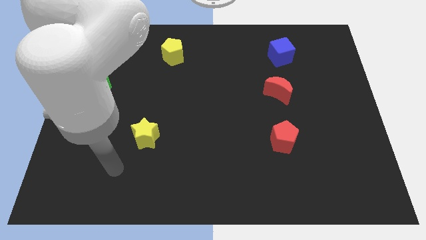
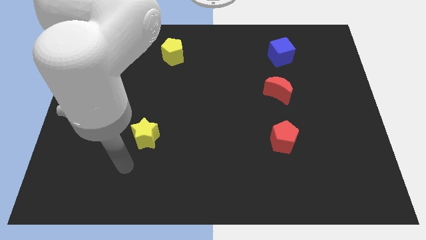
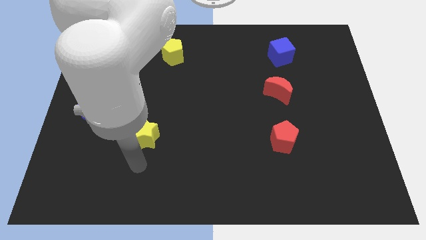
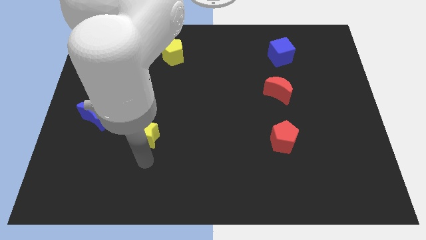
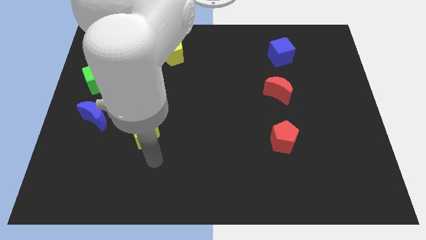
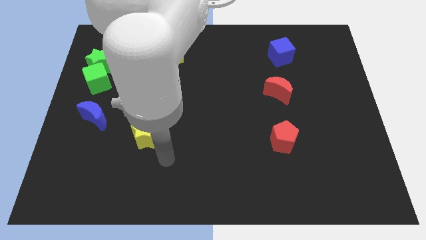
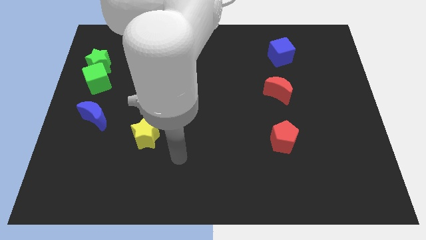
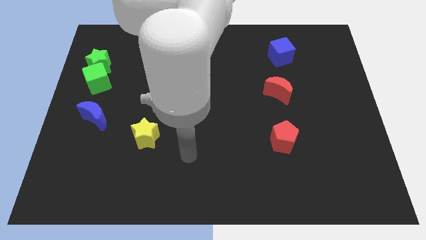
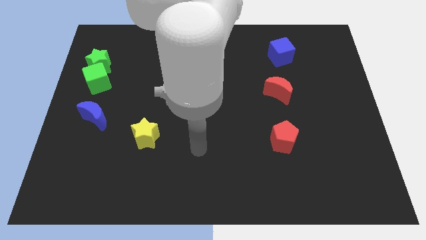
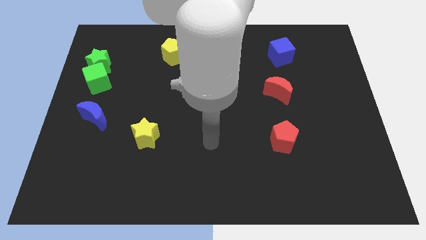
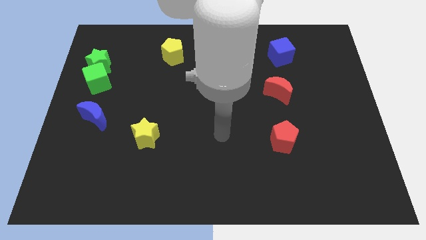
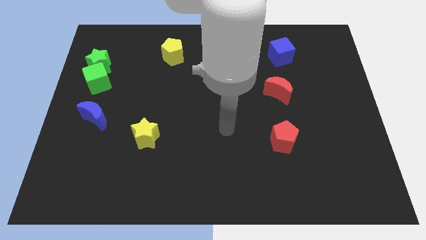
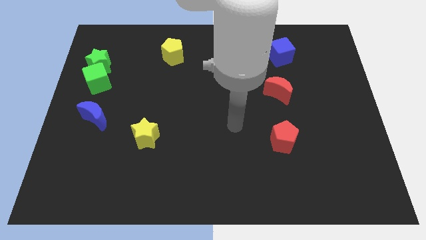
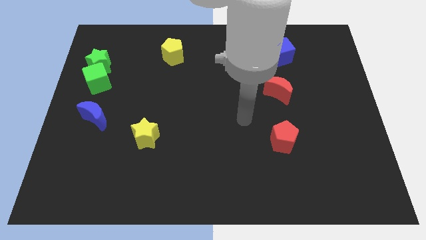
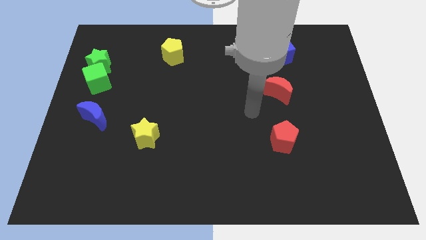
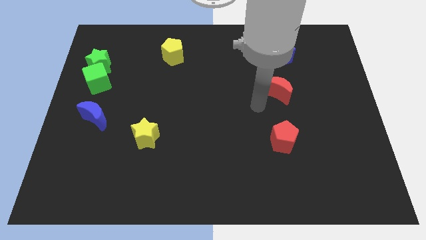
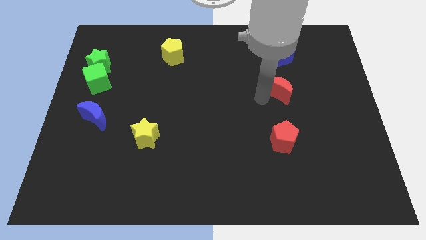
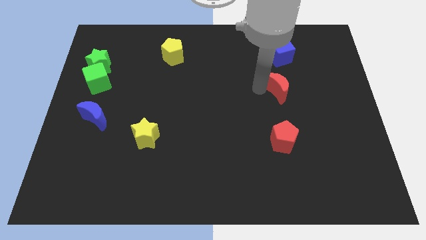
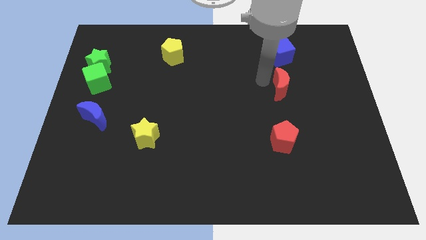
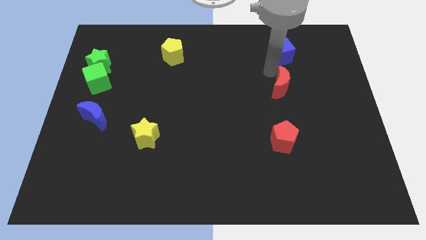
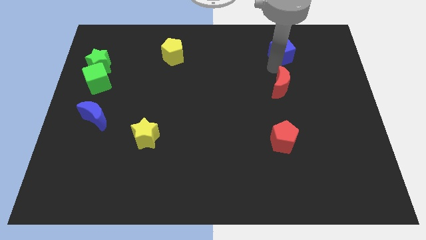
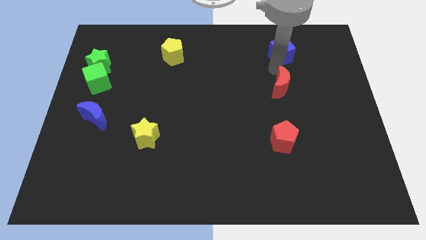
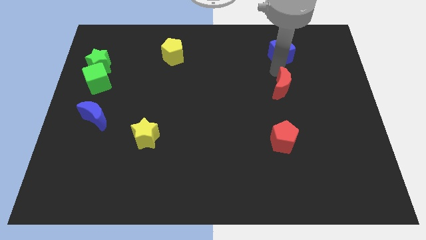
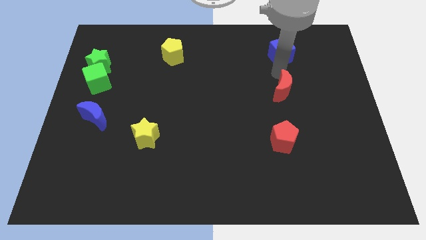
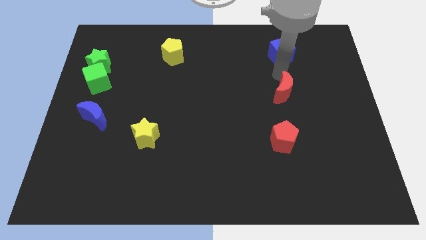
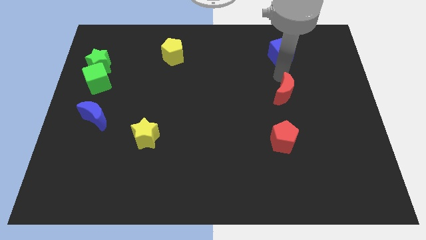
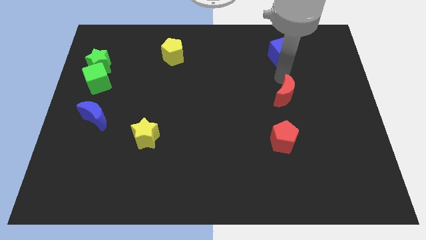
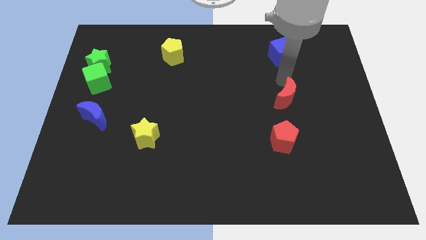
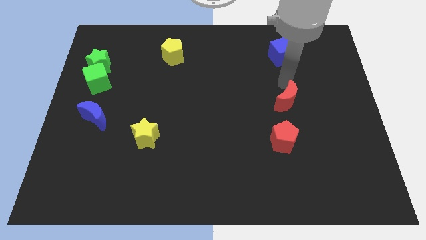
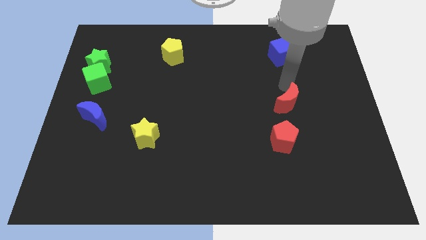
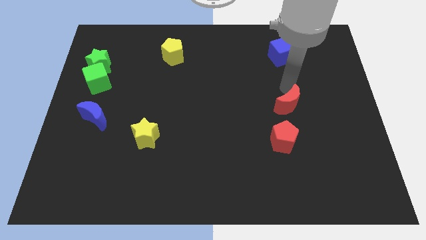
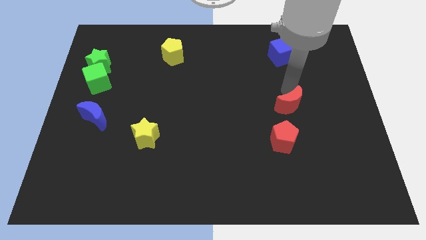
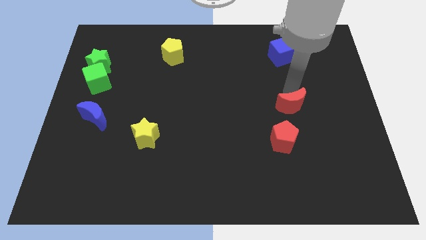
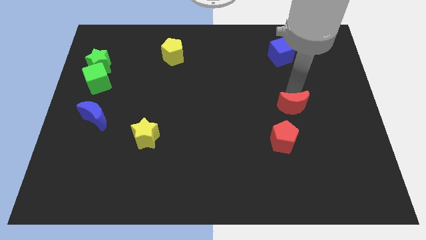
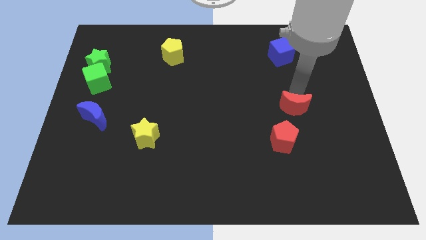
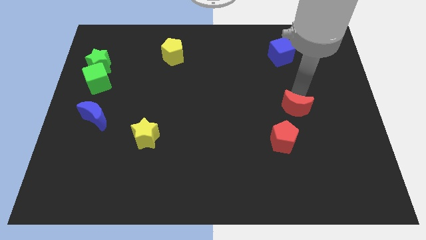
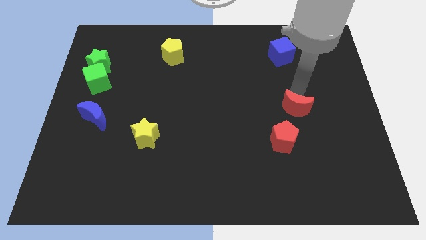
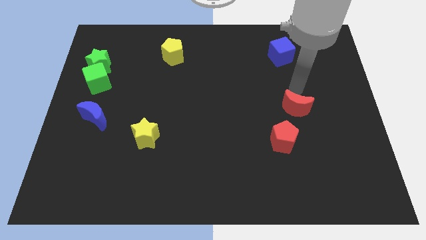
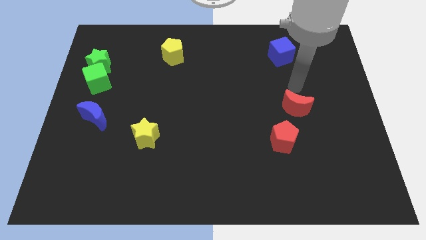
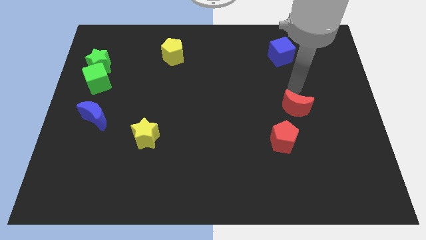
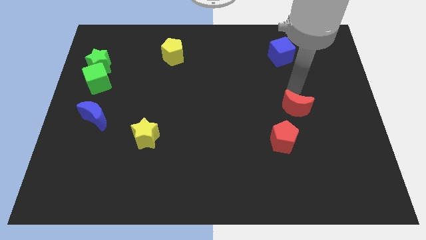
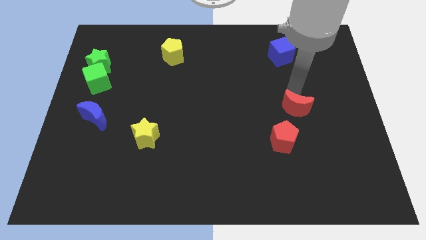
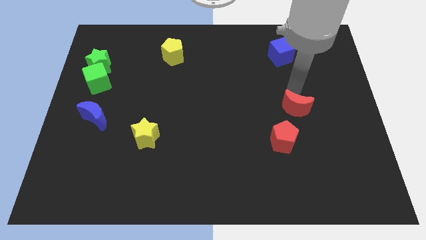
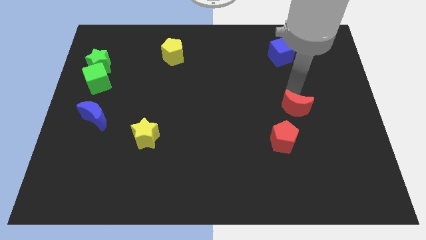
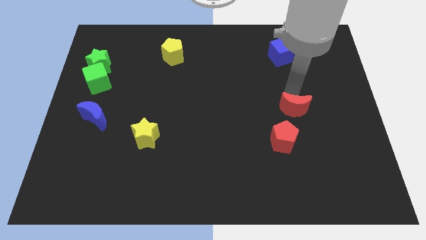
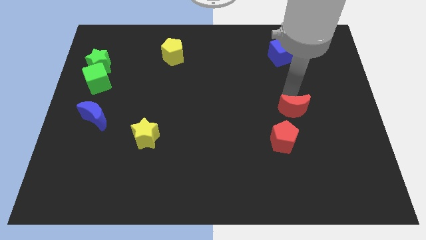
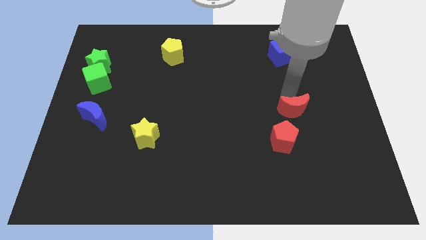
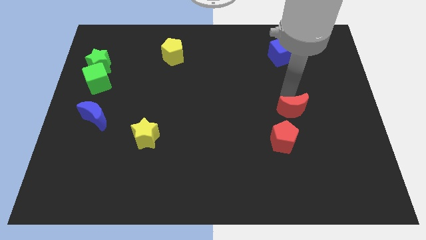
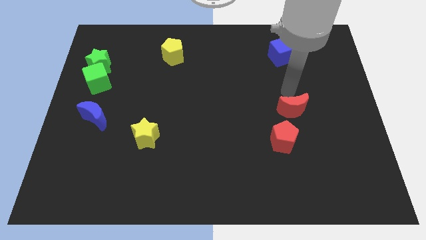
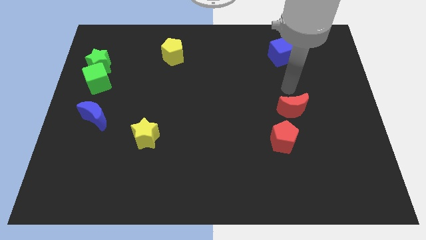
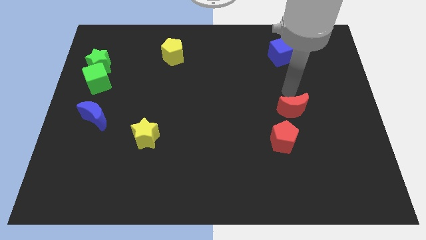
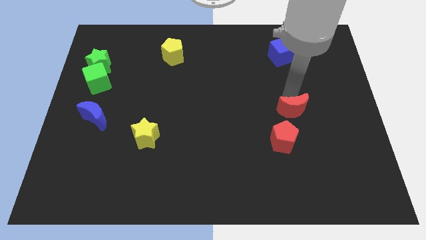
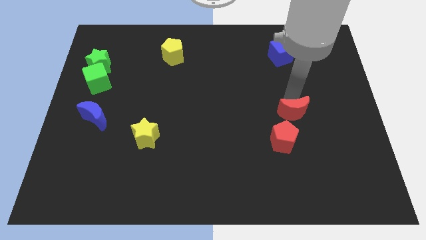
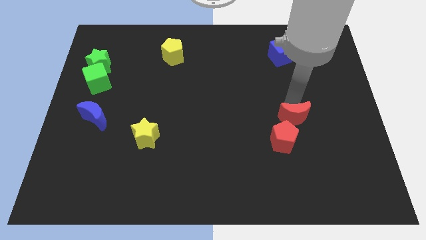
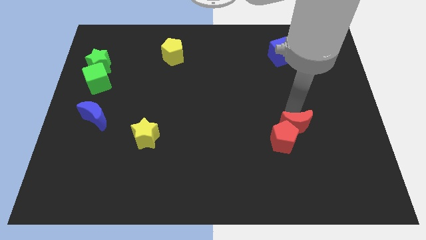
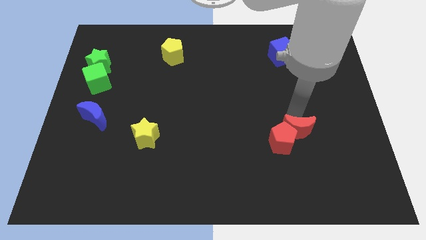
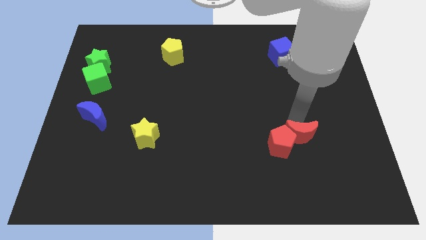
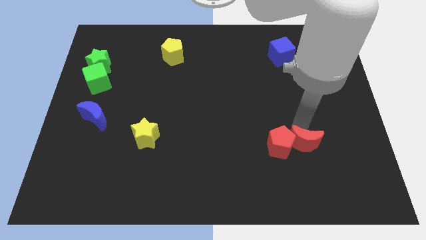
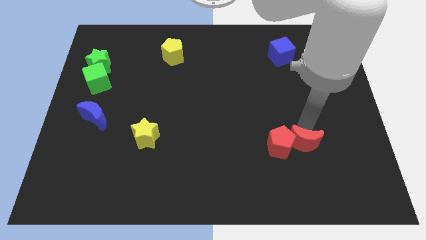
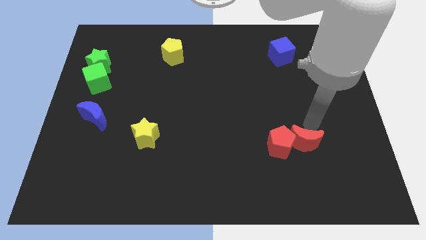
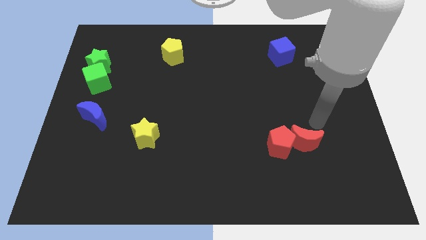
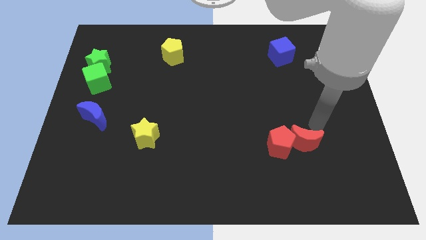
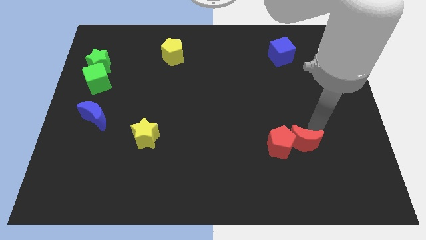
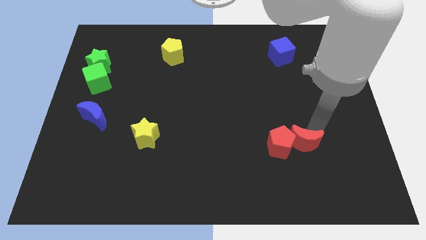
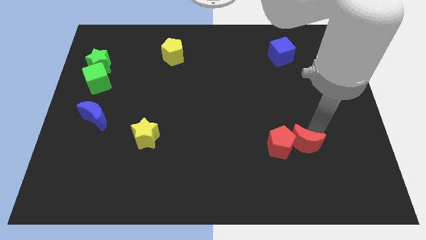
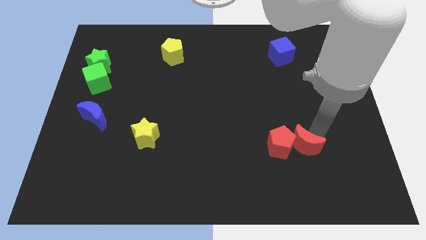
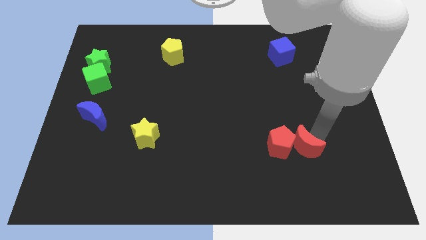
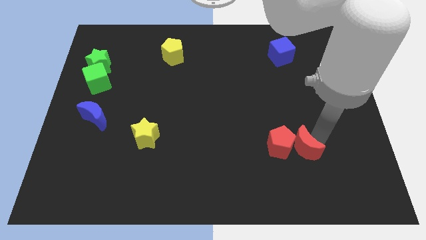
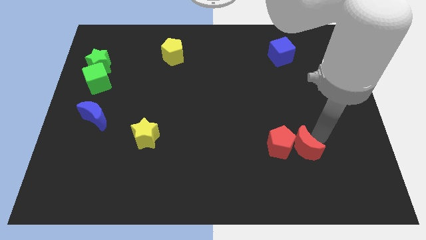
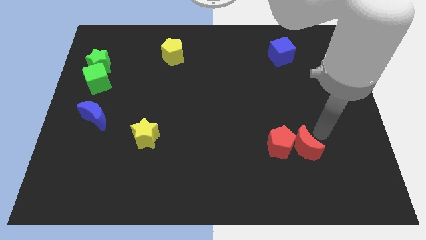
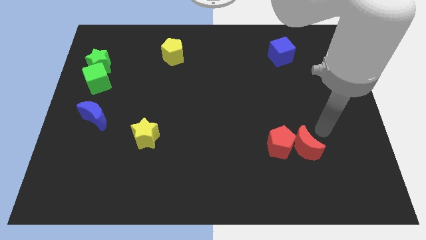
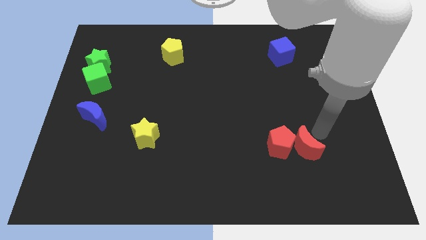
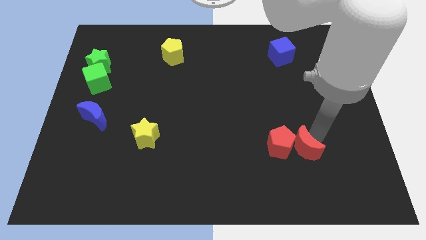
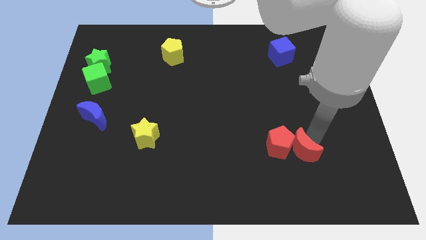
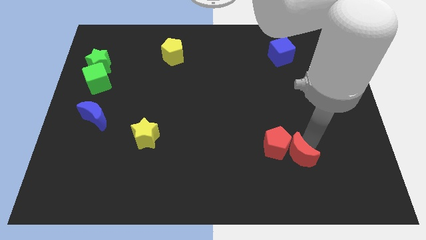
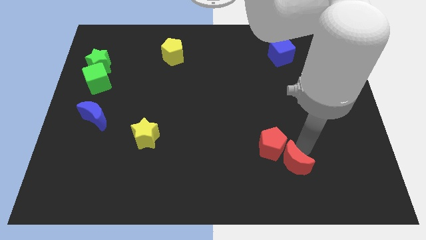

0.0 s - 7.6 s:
move the red moon to the bottom side of the red pentagon

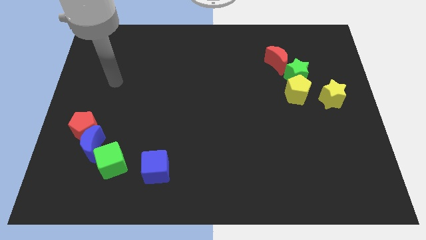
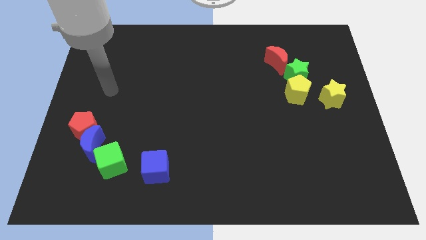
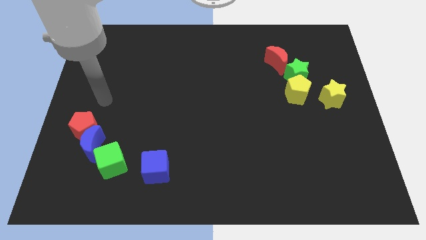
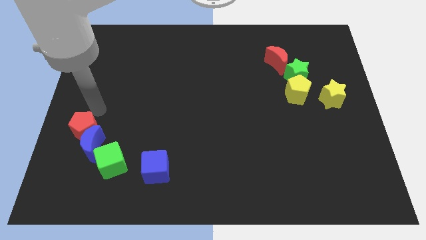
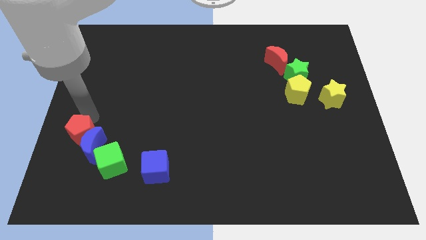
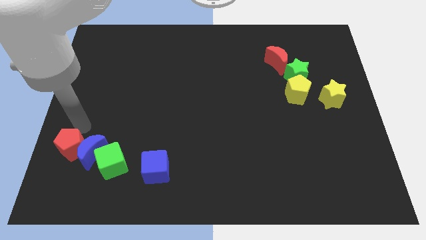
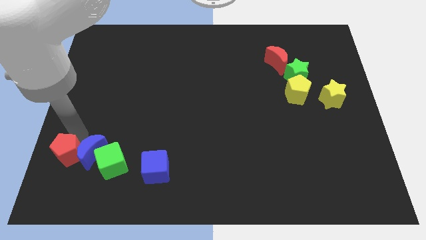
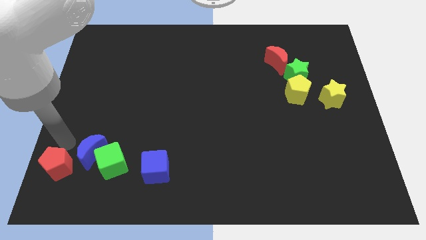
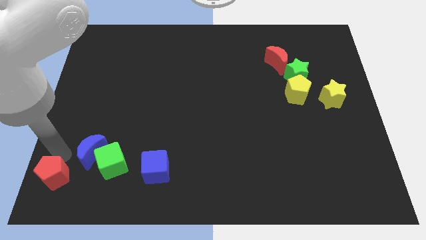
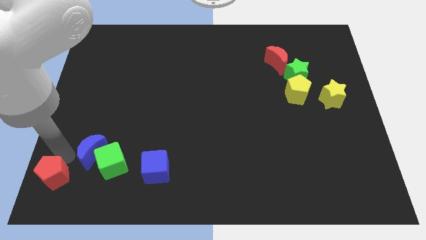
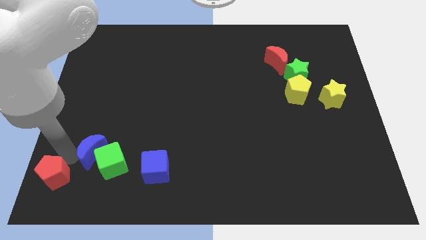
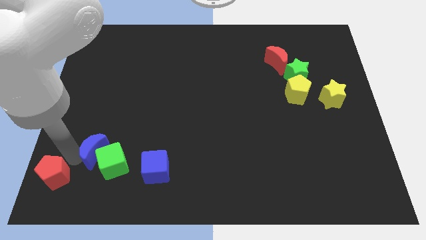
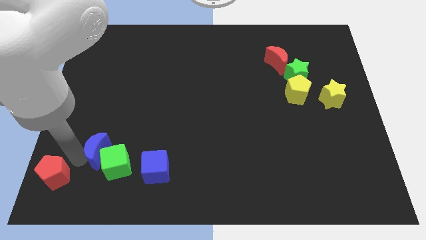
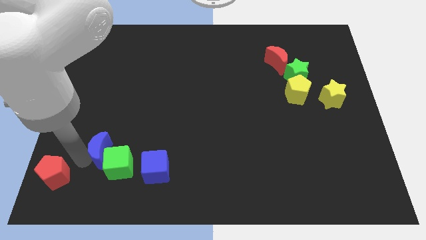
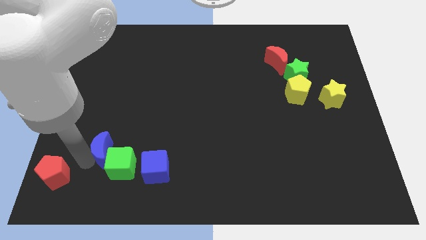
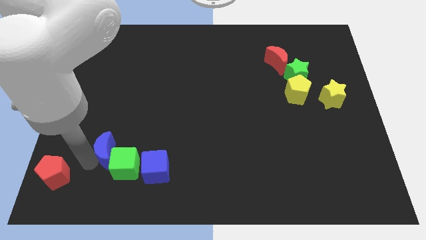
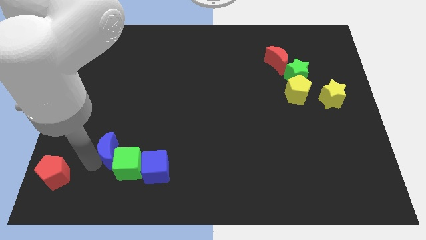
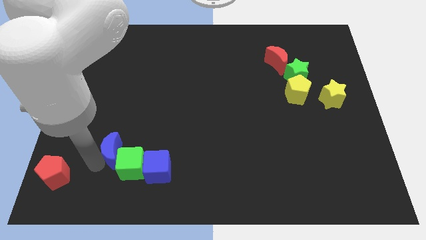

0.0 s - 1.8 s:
move the blue moon diagonally up and to the left of the blue cube
